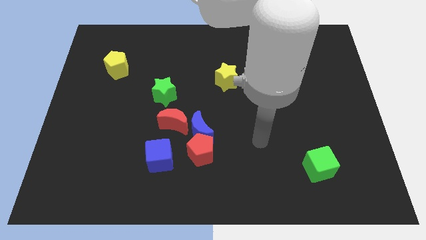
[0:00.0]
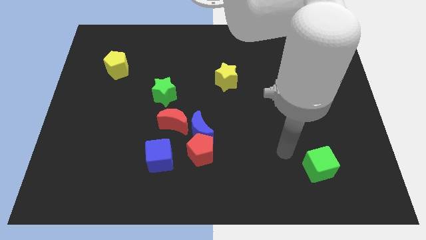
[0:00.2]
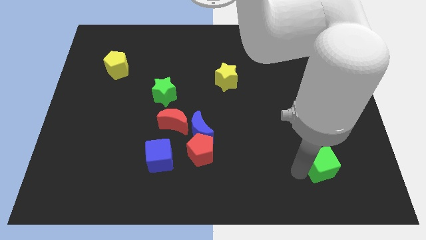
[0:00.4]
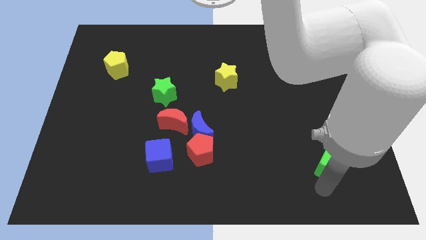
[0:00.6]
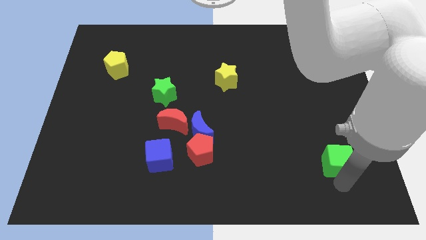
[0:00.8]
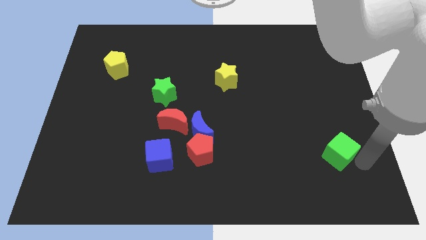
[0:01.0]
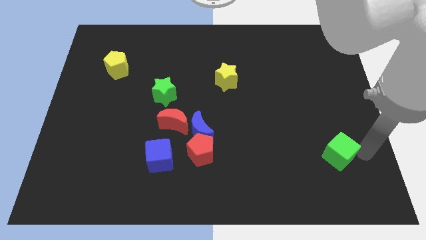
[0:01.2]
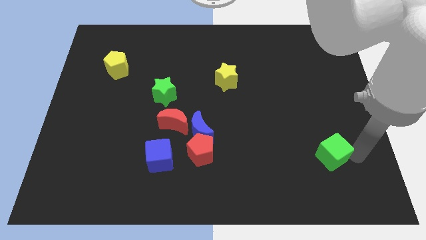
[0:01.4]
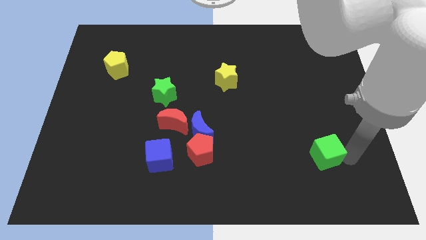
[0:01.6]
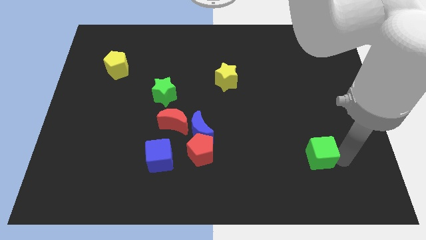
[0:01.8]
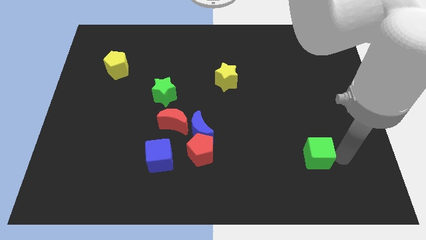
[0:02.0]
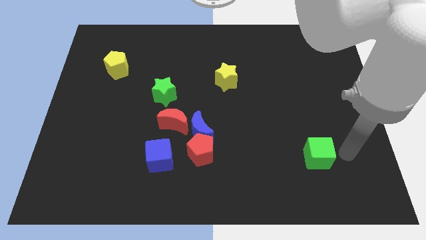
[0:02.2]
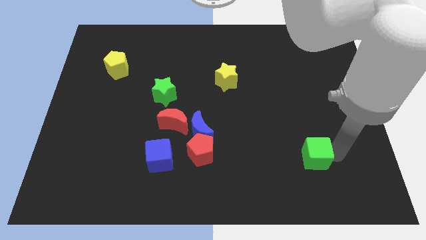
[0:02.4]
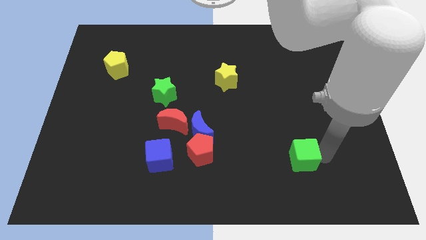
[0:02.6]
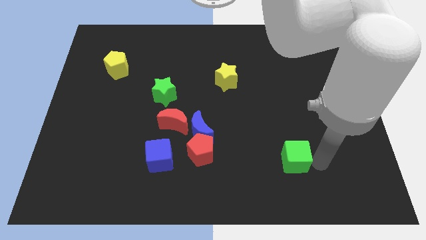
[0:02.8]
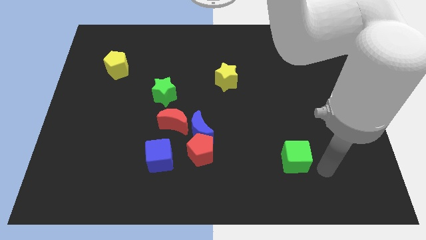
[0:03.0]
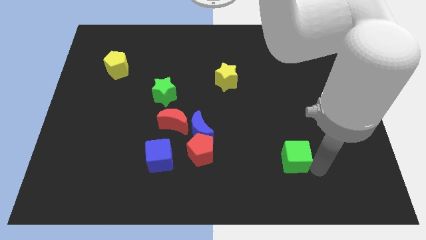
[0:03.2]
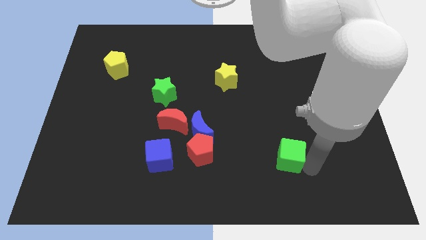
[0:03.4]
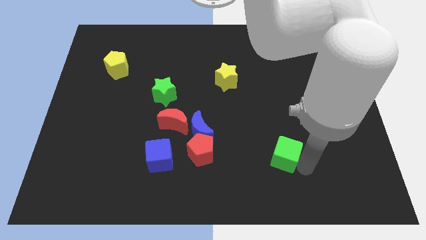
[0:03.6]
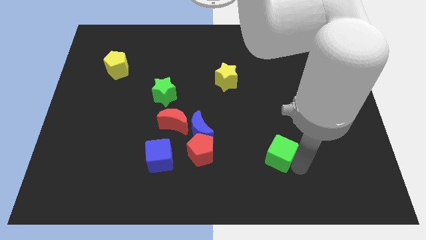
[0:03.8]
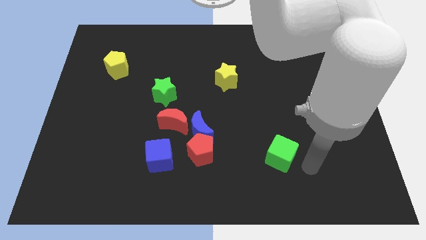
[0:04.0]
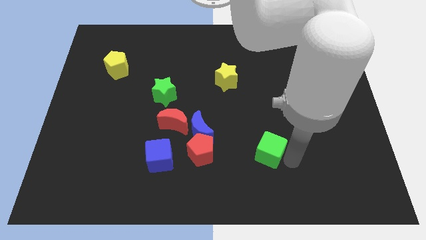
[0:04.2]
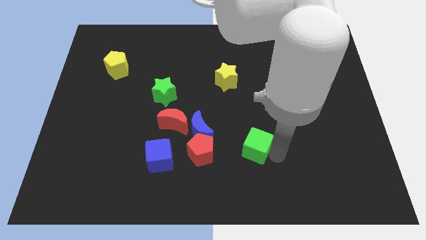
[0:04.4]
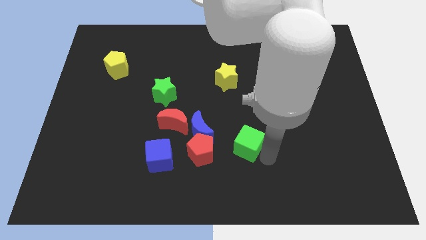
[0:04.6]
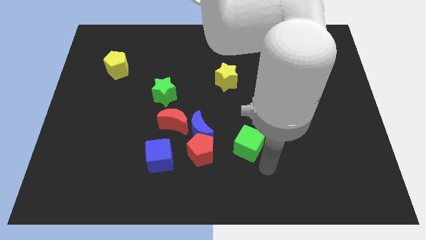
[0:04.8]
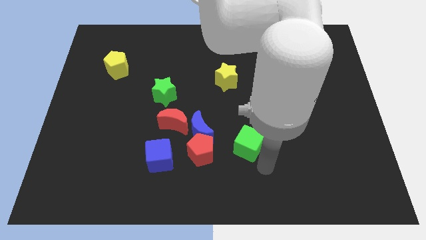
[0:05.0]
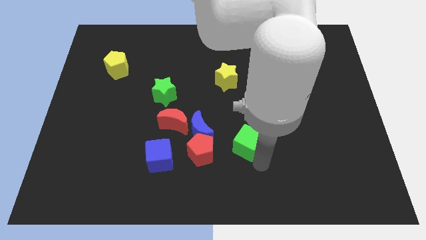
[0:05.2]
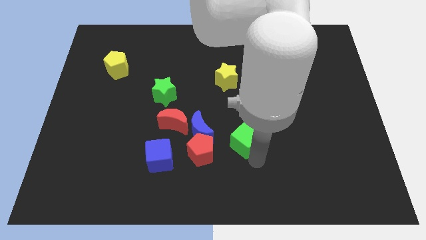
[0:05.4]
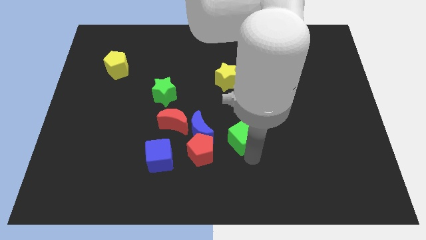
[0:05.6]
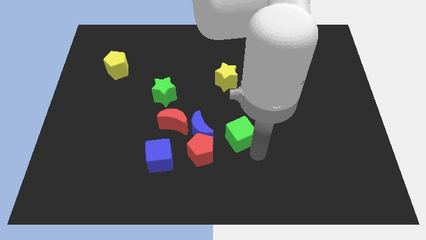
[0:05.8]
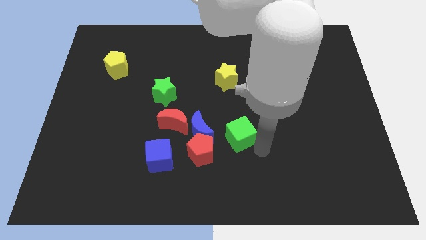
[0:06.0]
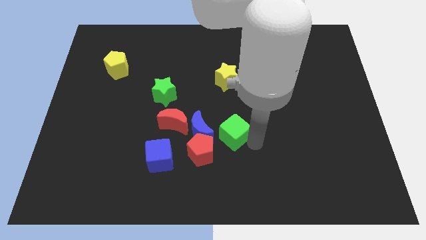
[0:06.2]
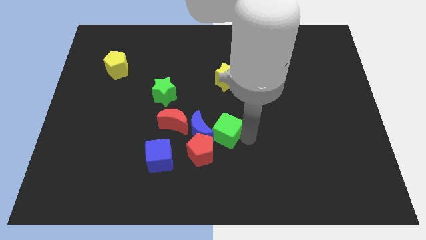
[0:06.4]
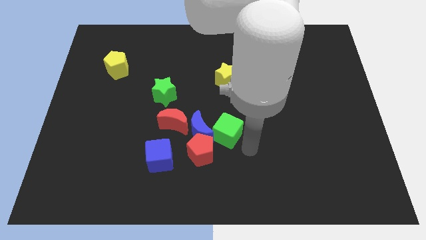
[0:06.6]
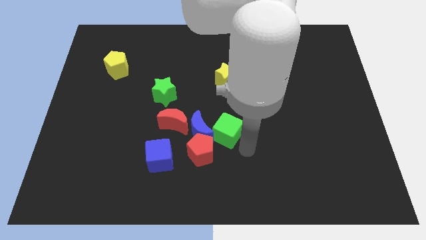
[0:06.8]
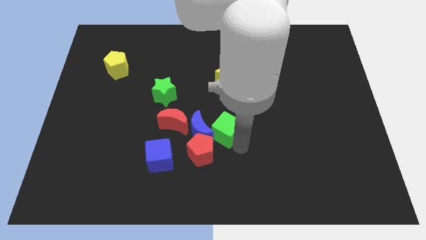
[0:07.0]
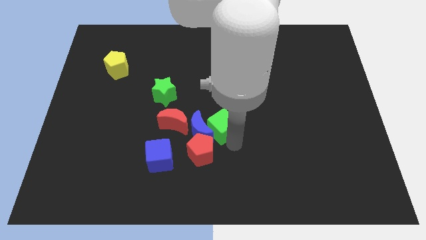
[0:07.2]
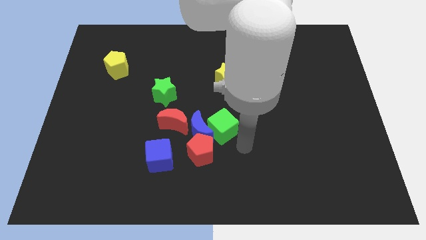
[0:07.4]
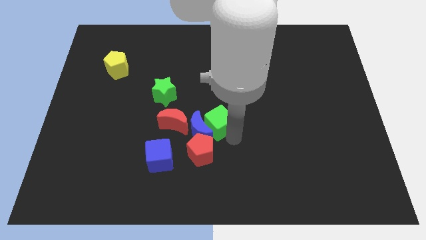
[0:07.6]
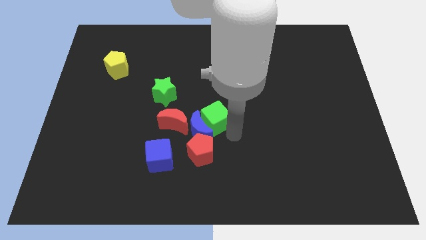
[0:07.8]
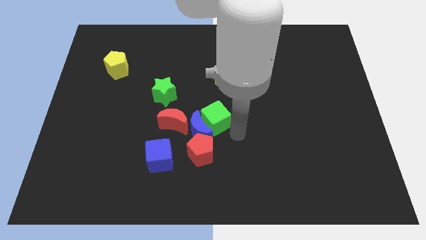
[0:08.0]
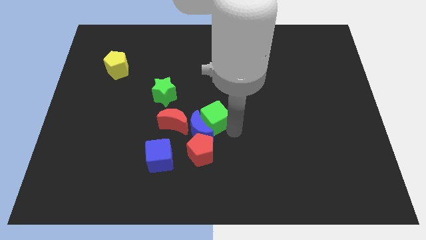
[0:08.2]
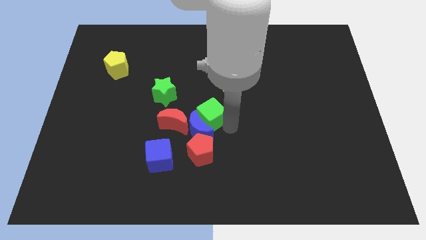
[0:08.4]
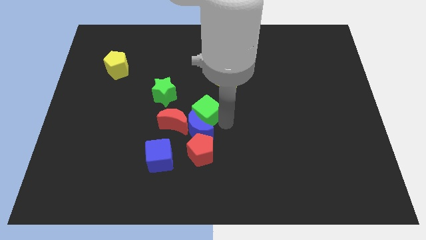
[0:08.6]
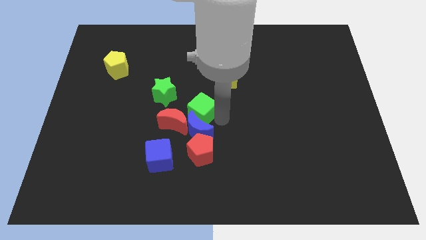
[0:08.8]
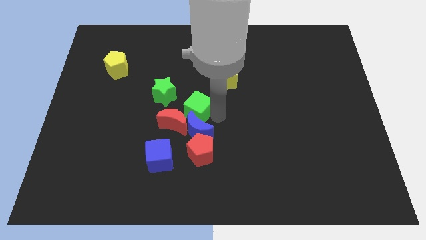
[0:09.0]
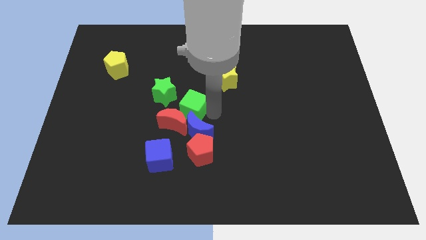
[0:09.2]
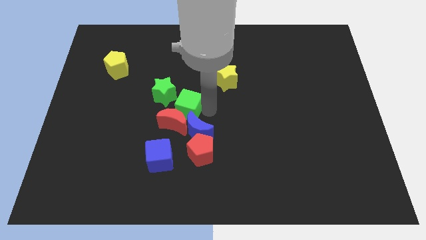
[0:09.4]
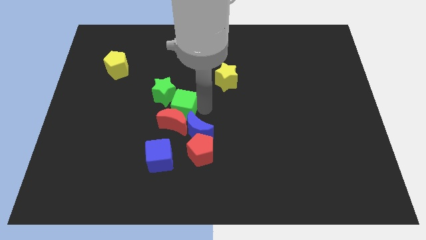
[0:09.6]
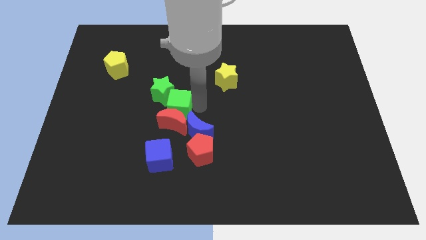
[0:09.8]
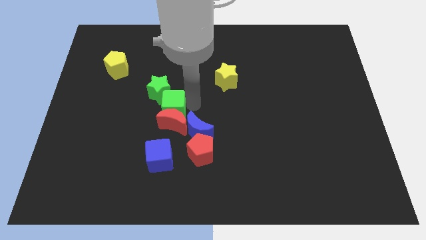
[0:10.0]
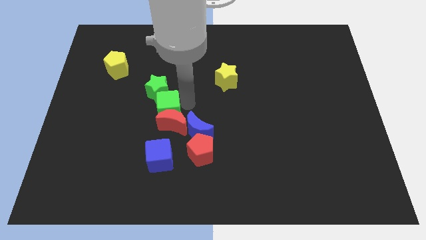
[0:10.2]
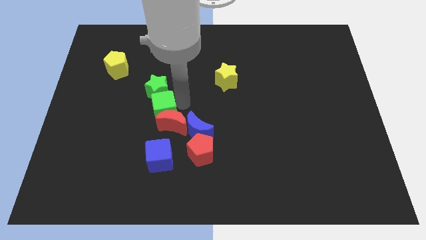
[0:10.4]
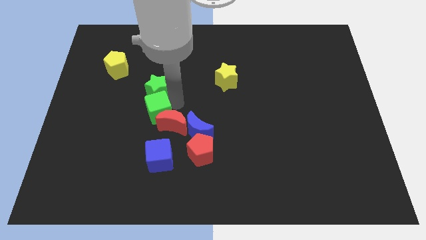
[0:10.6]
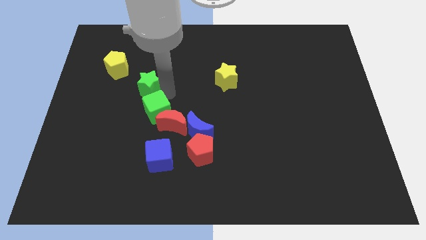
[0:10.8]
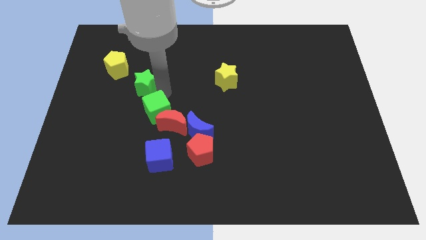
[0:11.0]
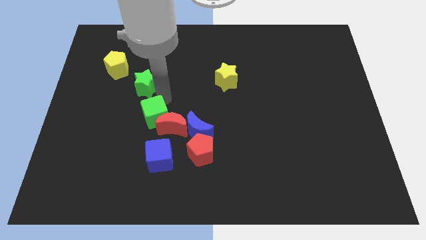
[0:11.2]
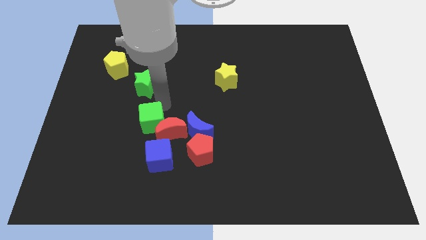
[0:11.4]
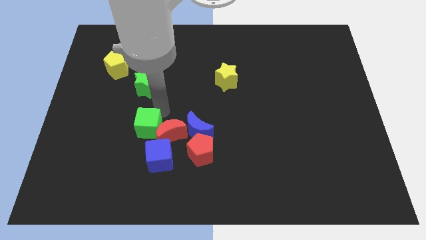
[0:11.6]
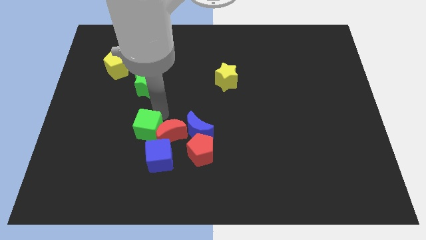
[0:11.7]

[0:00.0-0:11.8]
push the green cube to the bottom left side of the red moon
